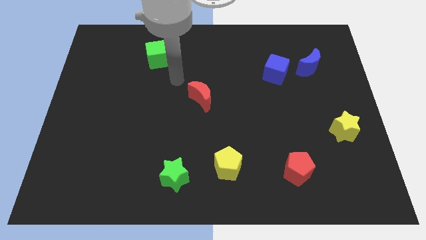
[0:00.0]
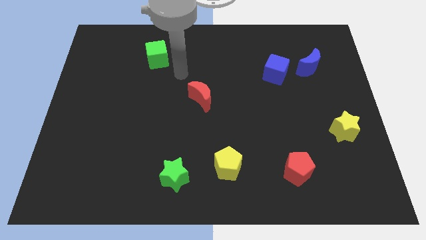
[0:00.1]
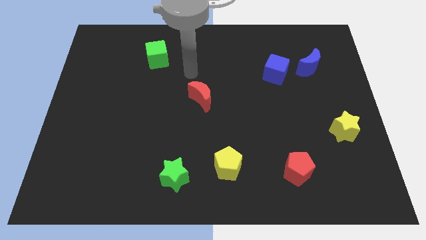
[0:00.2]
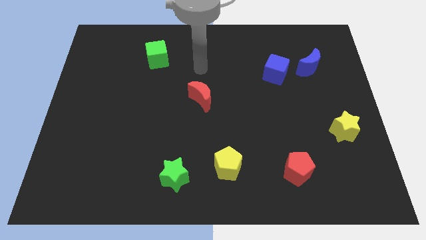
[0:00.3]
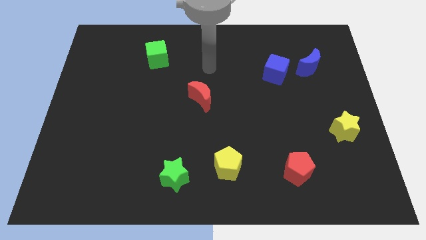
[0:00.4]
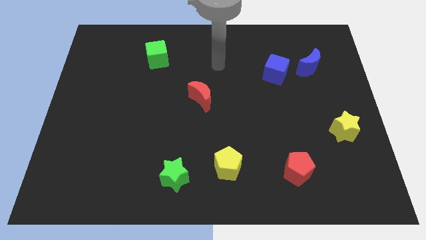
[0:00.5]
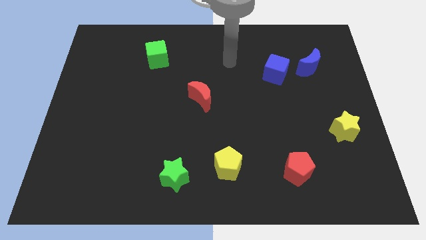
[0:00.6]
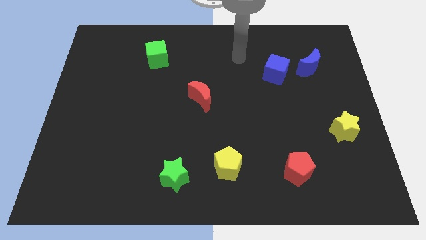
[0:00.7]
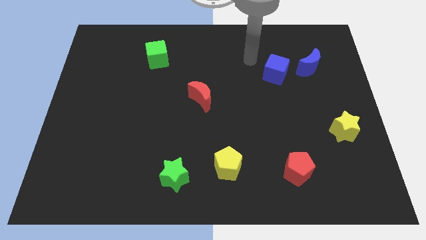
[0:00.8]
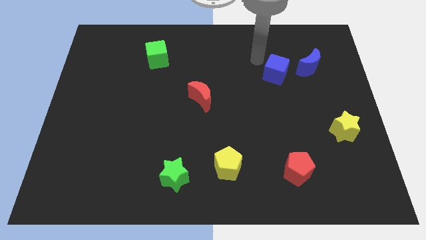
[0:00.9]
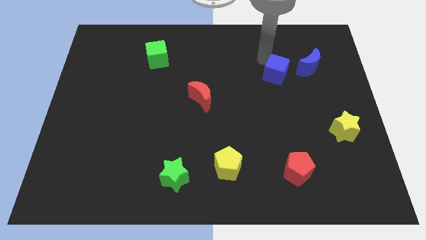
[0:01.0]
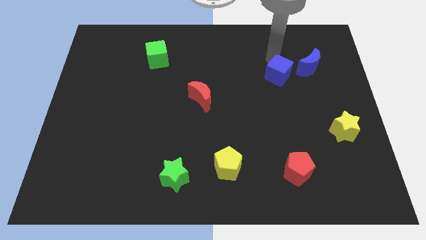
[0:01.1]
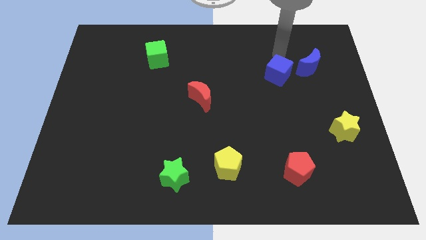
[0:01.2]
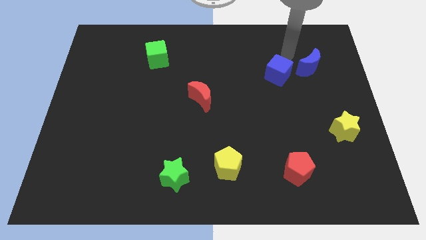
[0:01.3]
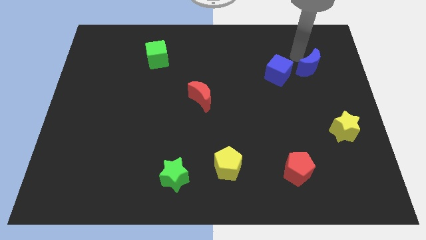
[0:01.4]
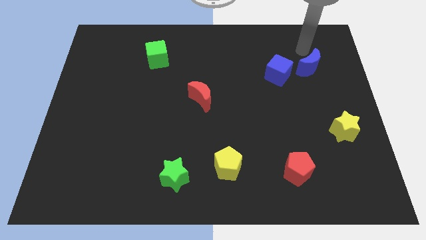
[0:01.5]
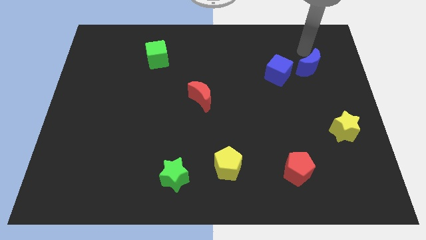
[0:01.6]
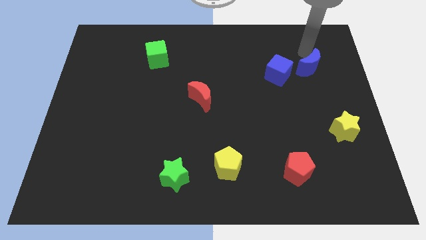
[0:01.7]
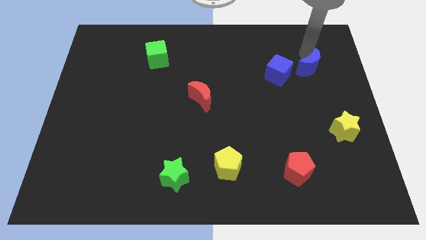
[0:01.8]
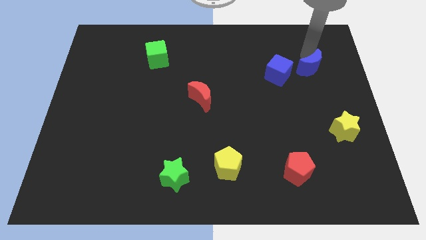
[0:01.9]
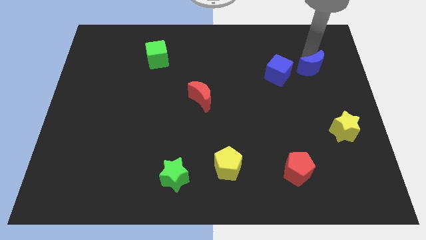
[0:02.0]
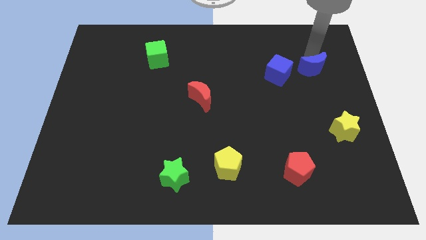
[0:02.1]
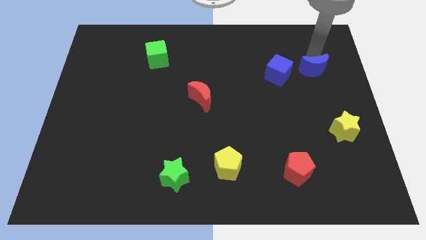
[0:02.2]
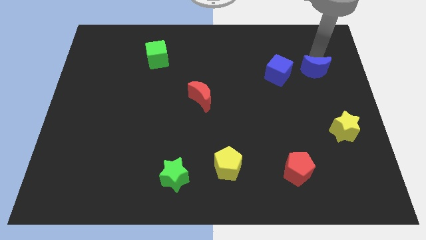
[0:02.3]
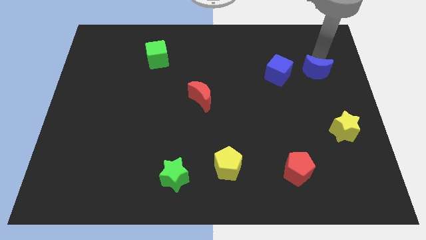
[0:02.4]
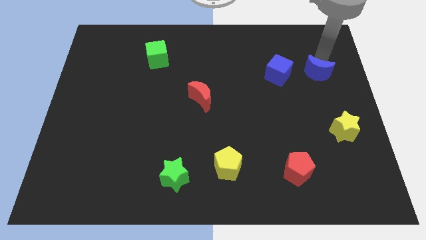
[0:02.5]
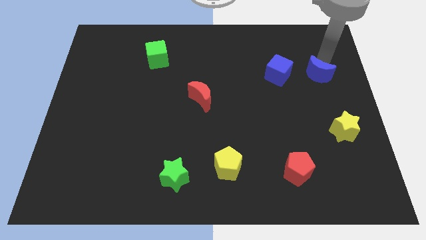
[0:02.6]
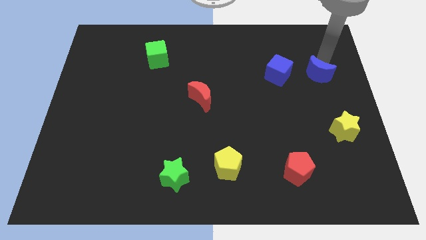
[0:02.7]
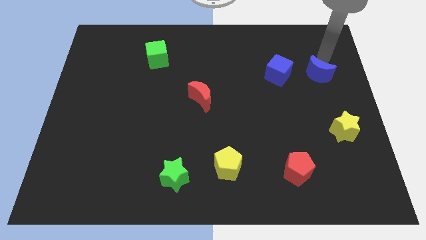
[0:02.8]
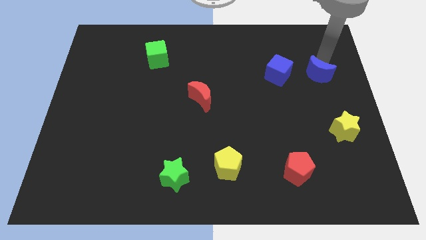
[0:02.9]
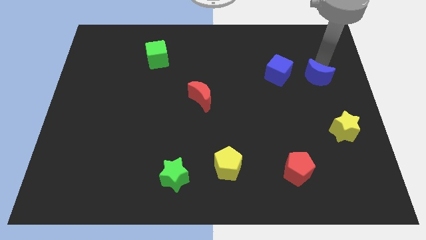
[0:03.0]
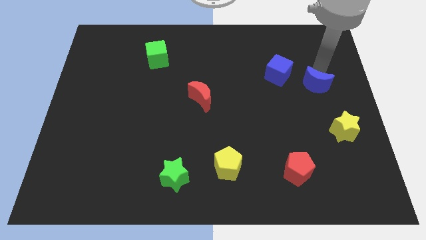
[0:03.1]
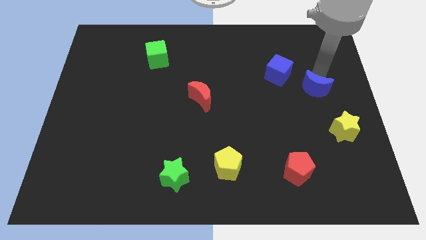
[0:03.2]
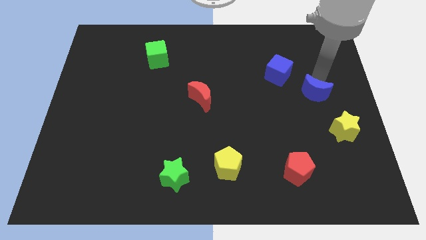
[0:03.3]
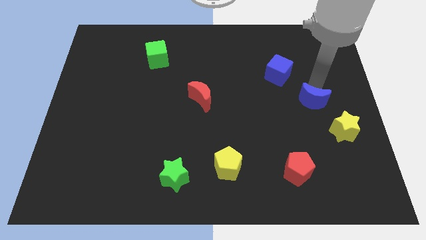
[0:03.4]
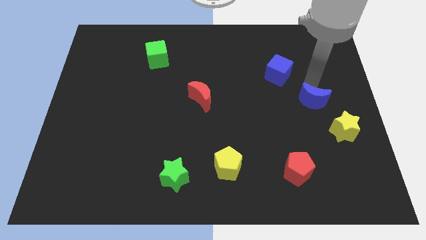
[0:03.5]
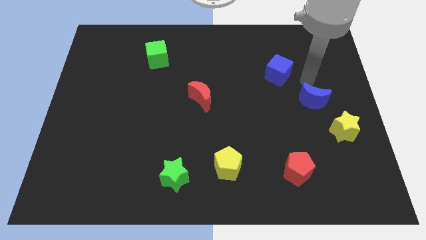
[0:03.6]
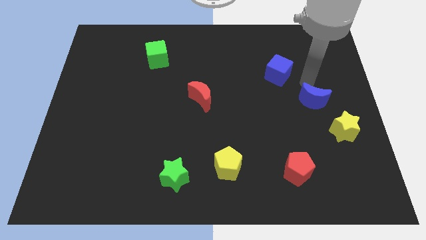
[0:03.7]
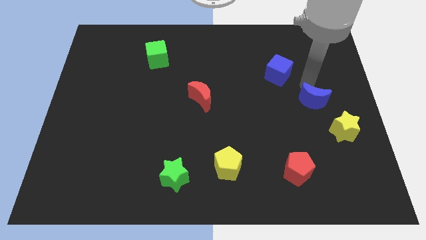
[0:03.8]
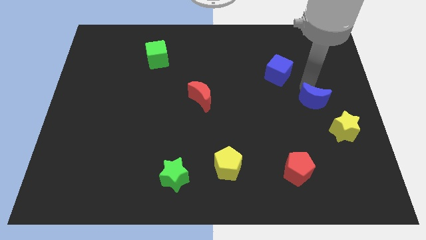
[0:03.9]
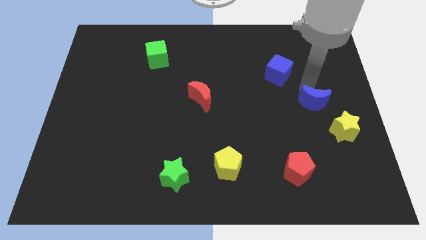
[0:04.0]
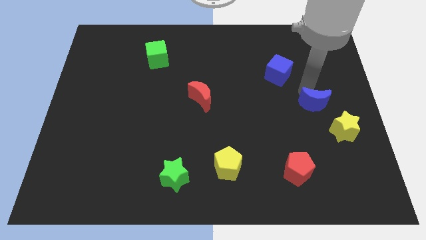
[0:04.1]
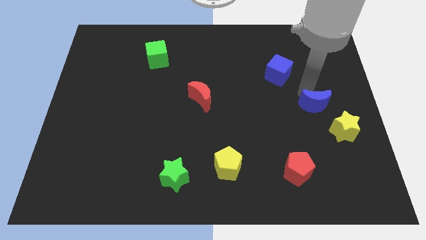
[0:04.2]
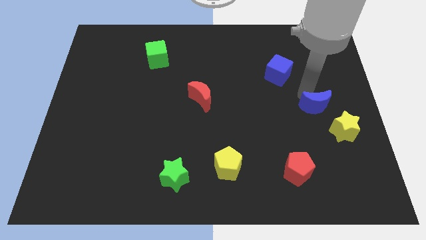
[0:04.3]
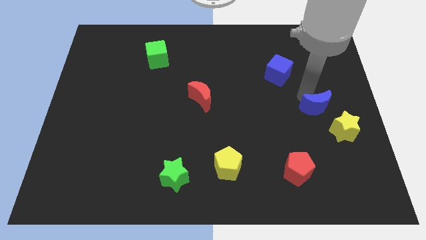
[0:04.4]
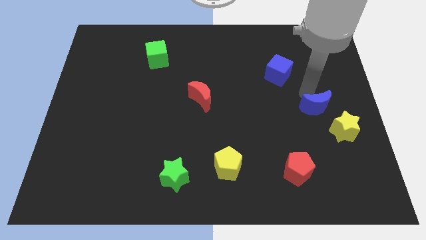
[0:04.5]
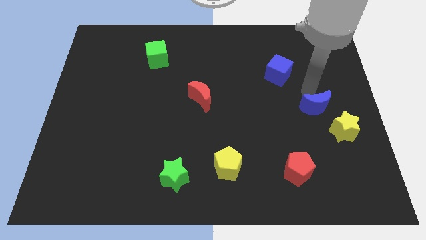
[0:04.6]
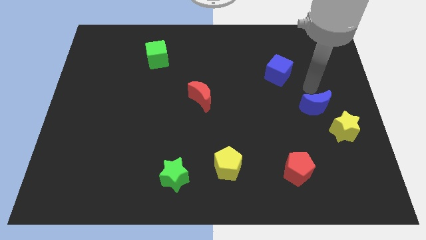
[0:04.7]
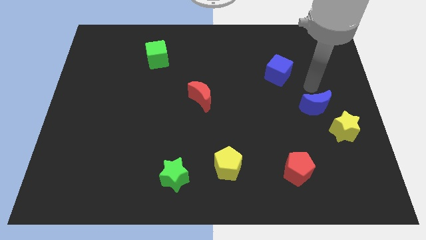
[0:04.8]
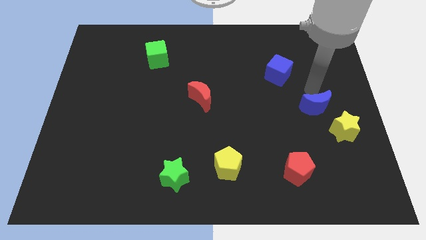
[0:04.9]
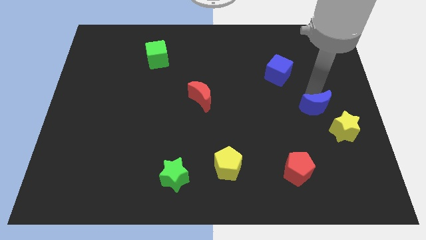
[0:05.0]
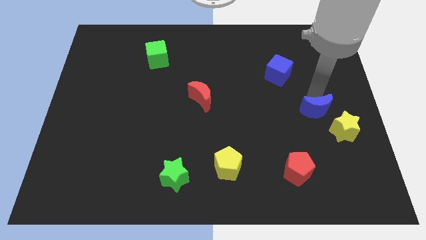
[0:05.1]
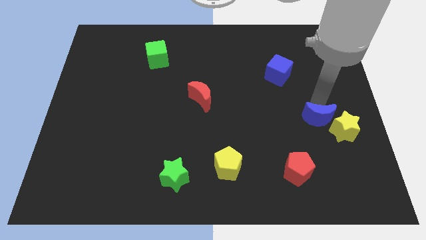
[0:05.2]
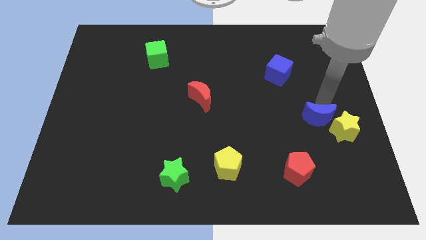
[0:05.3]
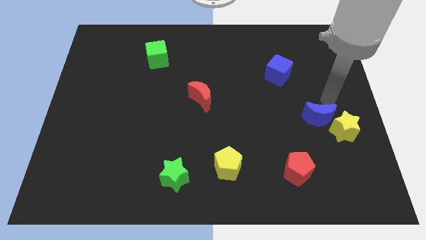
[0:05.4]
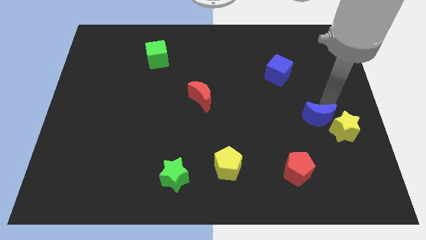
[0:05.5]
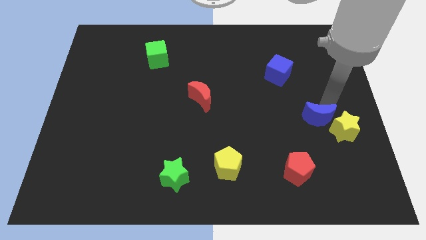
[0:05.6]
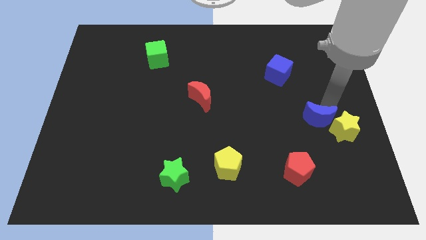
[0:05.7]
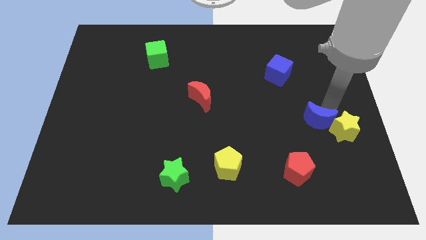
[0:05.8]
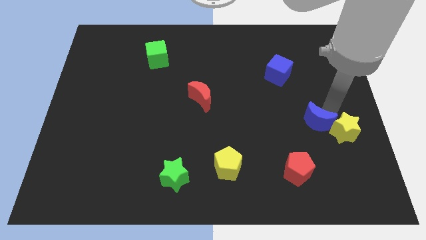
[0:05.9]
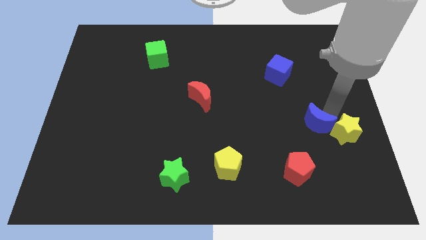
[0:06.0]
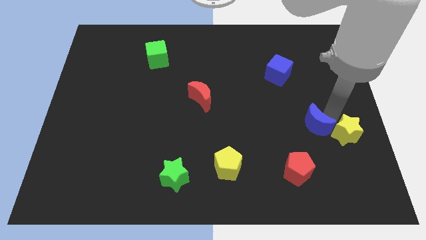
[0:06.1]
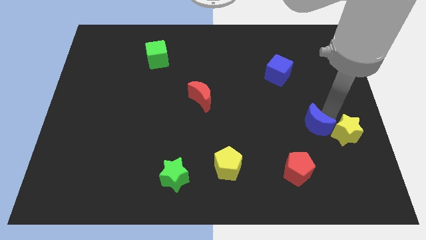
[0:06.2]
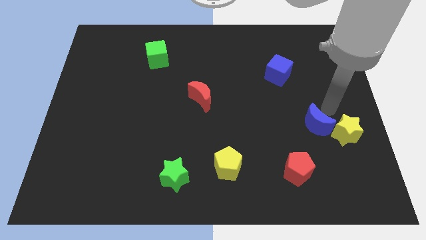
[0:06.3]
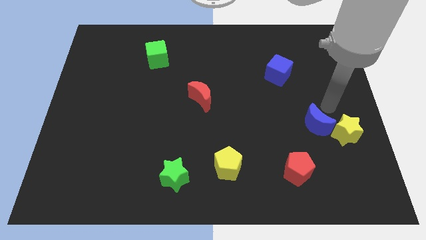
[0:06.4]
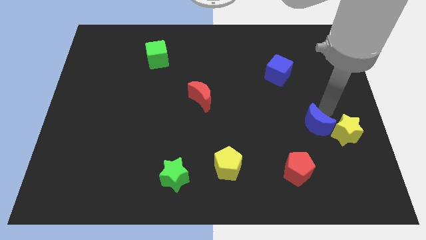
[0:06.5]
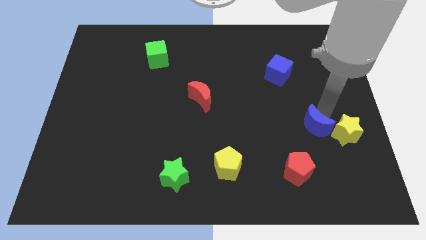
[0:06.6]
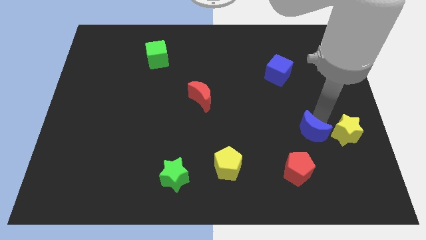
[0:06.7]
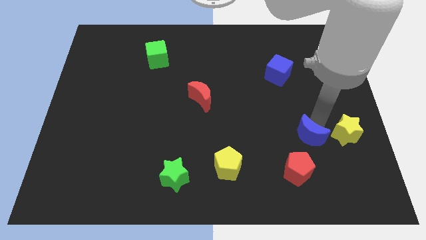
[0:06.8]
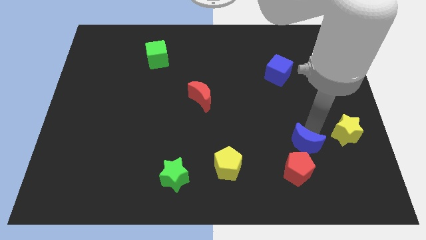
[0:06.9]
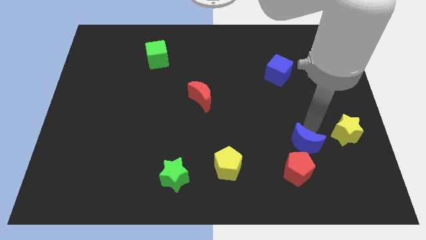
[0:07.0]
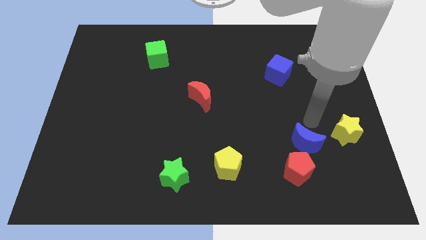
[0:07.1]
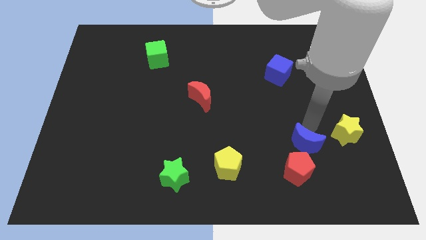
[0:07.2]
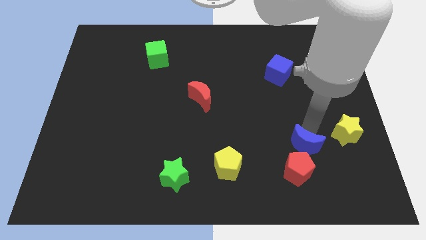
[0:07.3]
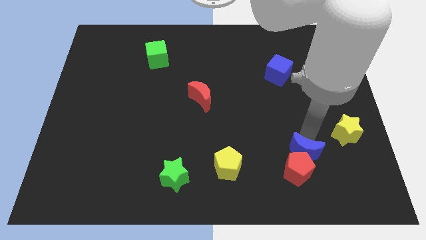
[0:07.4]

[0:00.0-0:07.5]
push the blue moon close to the red pentagon
